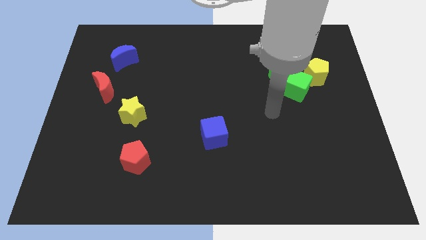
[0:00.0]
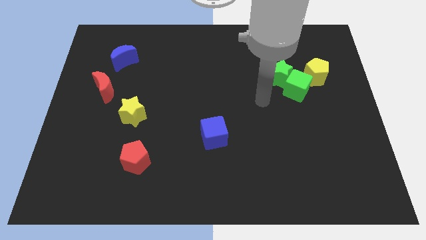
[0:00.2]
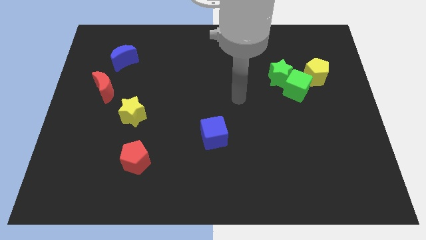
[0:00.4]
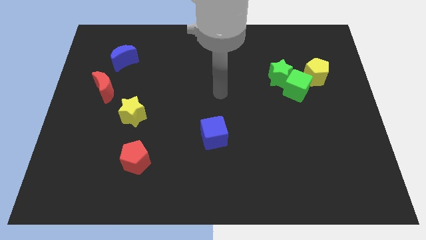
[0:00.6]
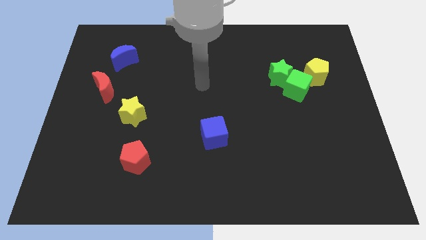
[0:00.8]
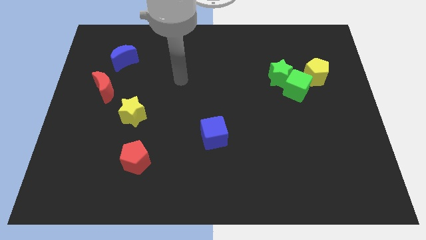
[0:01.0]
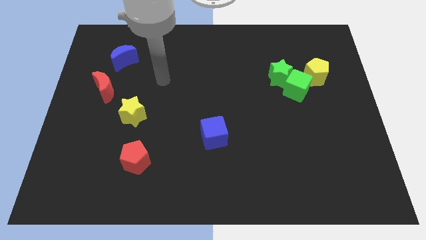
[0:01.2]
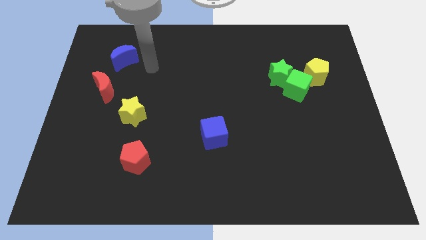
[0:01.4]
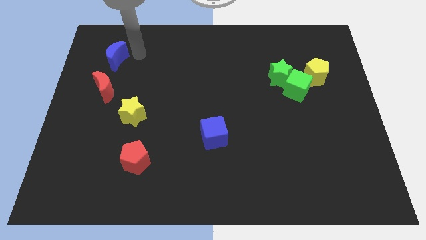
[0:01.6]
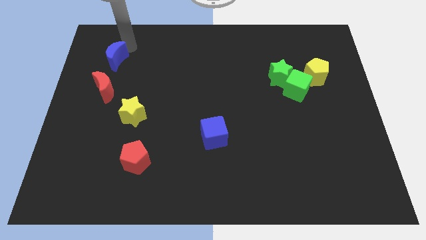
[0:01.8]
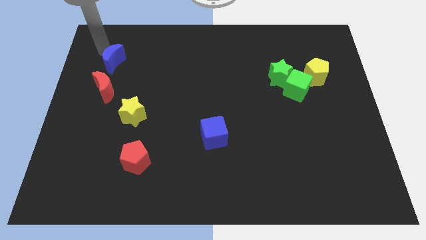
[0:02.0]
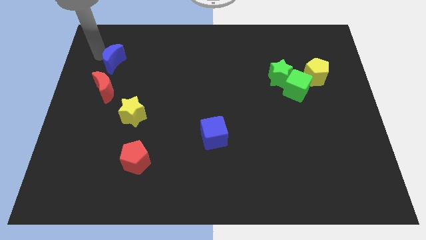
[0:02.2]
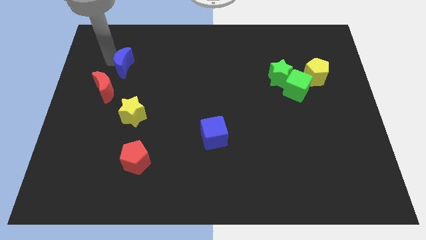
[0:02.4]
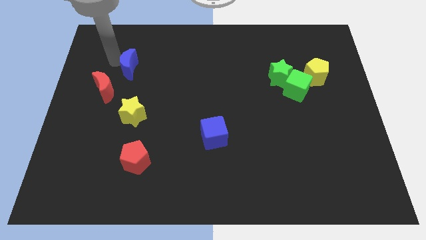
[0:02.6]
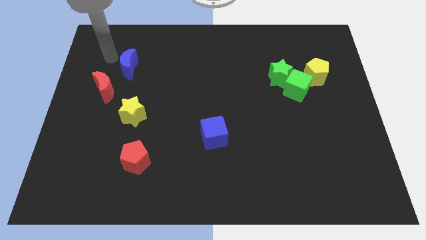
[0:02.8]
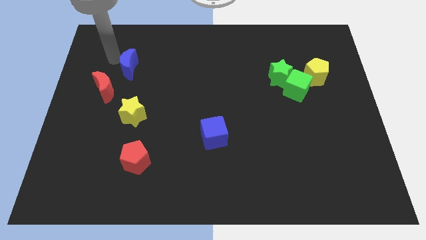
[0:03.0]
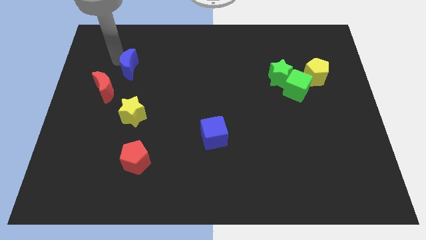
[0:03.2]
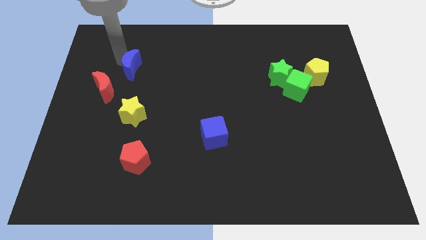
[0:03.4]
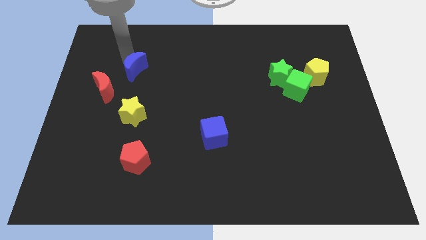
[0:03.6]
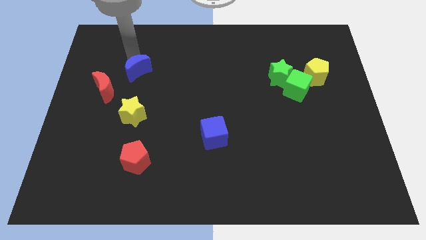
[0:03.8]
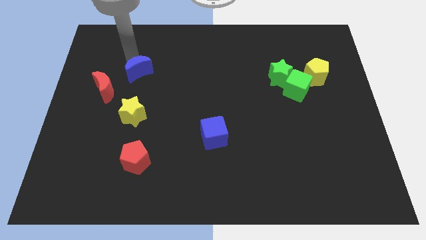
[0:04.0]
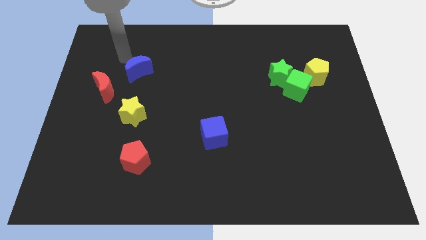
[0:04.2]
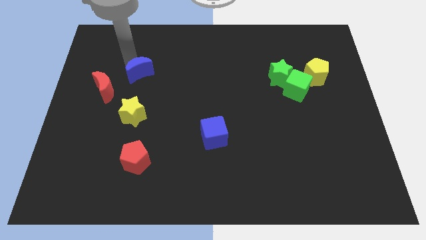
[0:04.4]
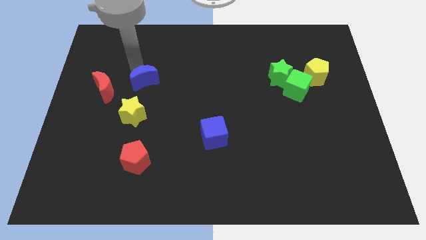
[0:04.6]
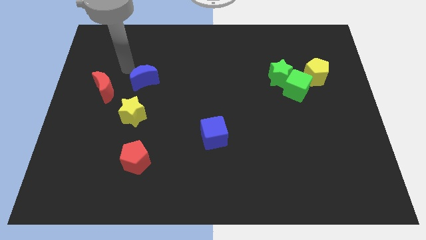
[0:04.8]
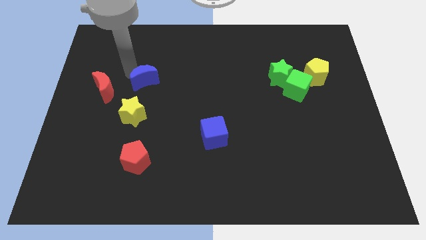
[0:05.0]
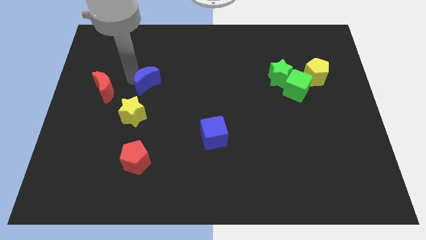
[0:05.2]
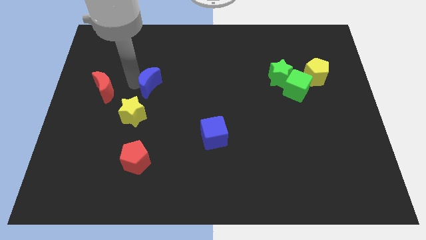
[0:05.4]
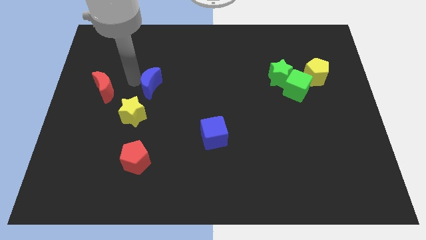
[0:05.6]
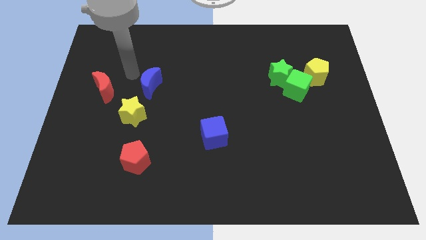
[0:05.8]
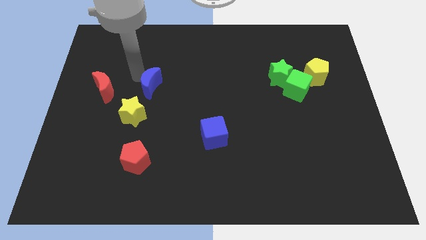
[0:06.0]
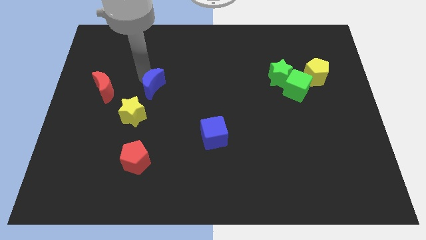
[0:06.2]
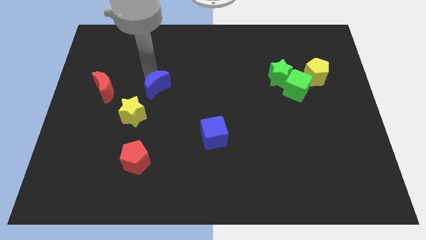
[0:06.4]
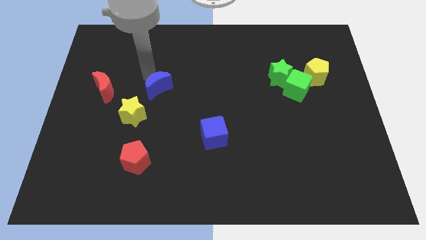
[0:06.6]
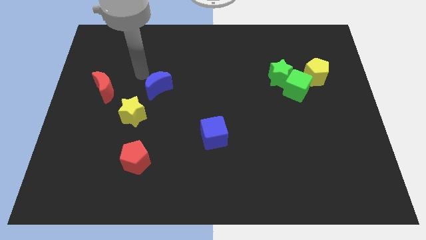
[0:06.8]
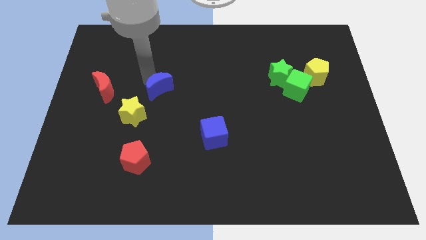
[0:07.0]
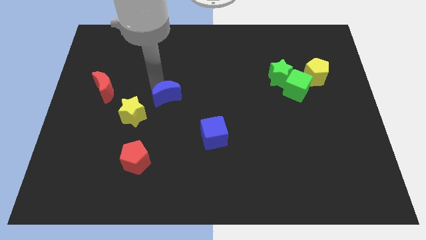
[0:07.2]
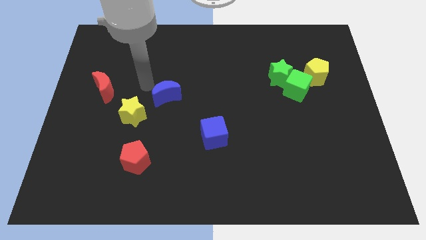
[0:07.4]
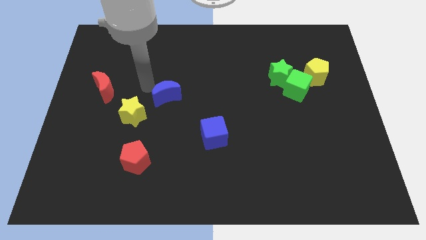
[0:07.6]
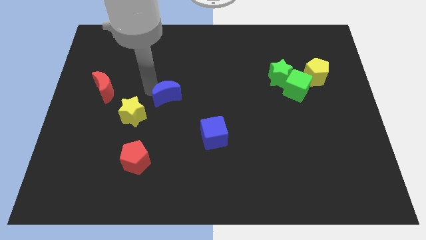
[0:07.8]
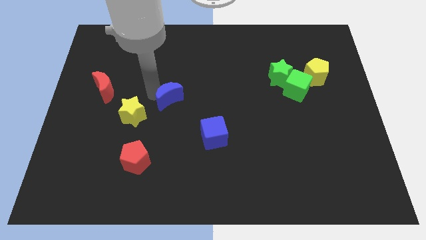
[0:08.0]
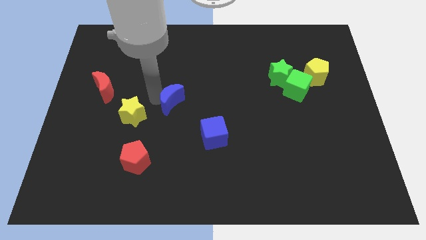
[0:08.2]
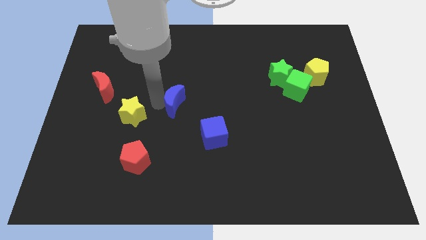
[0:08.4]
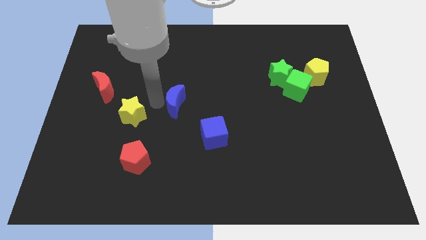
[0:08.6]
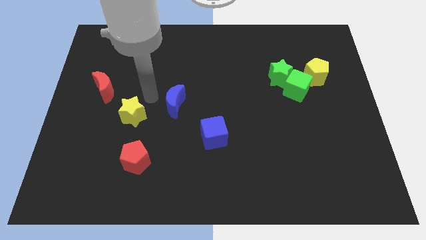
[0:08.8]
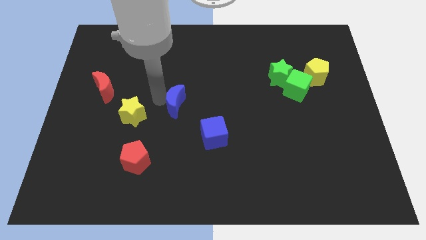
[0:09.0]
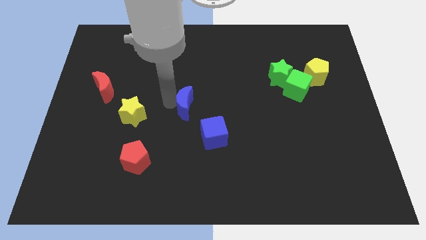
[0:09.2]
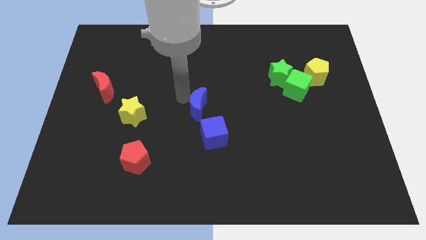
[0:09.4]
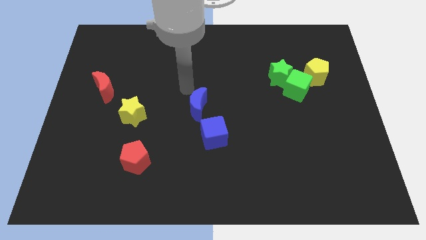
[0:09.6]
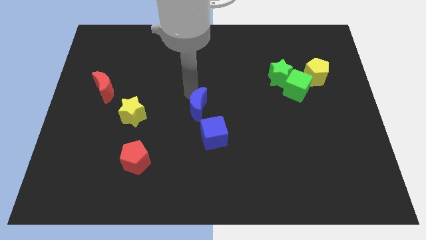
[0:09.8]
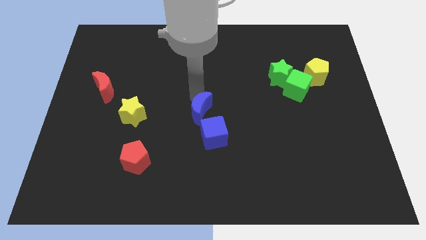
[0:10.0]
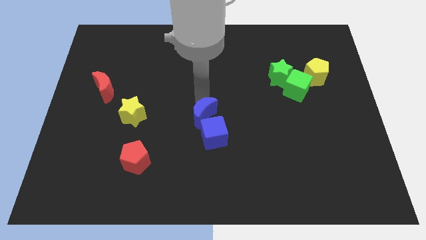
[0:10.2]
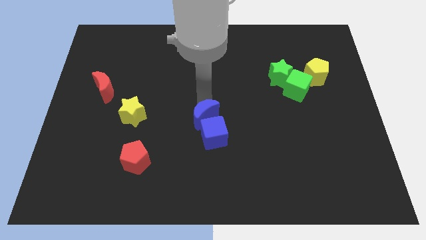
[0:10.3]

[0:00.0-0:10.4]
put the blue moon close to the blue cube

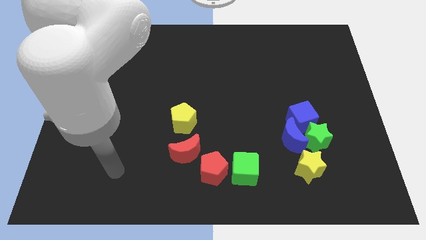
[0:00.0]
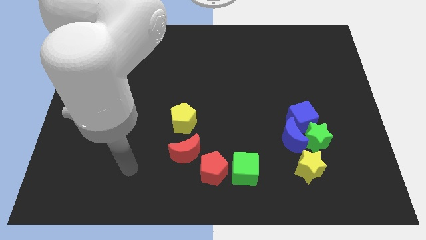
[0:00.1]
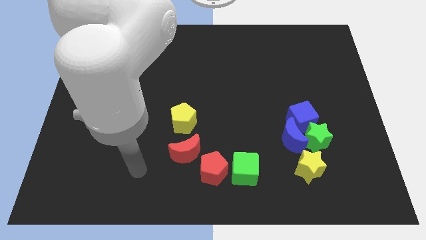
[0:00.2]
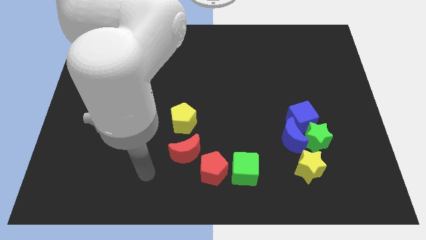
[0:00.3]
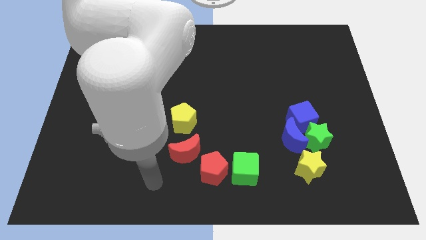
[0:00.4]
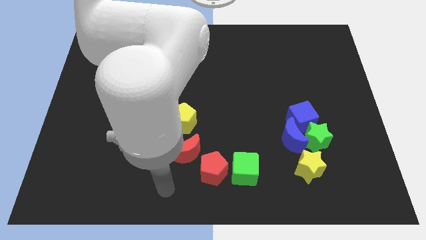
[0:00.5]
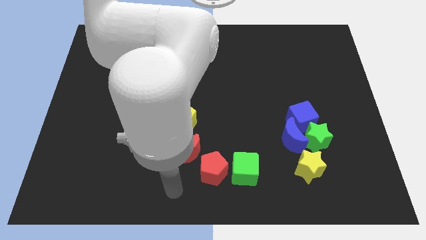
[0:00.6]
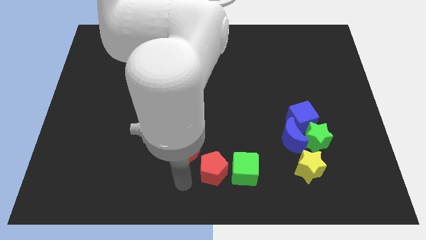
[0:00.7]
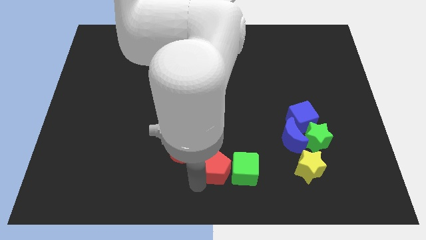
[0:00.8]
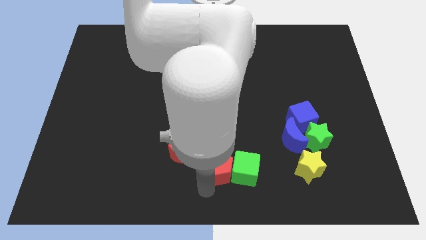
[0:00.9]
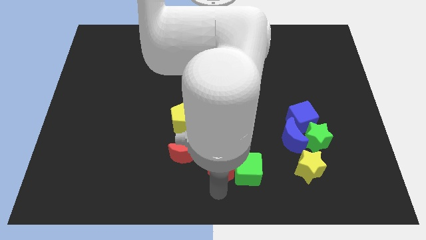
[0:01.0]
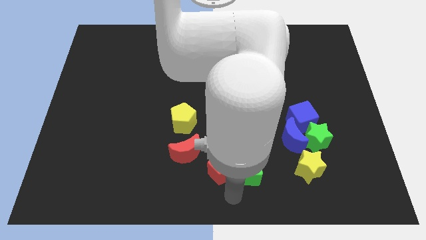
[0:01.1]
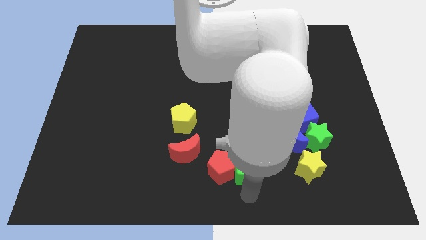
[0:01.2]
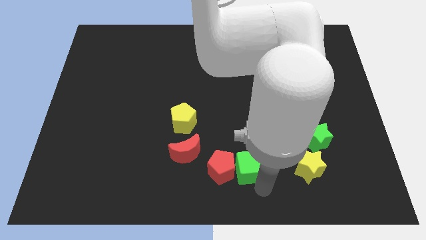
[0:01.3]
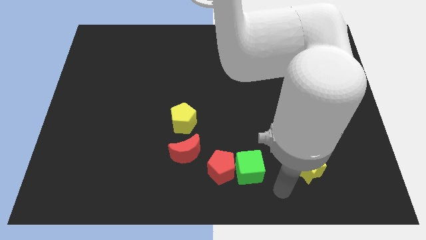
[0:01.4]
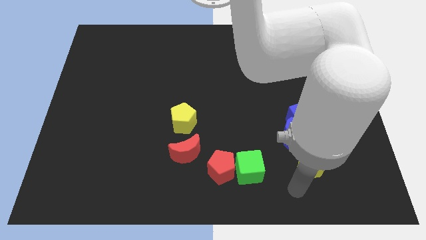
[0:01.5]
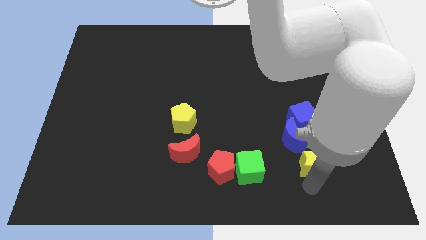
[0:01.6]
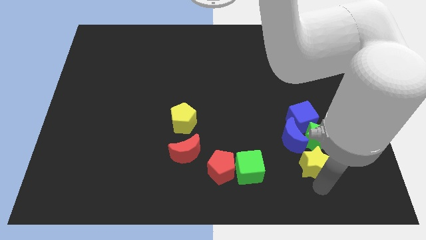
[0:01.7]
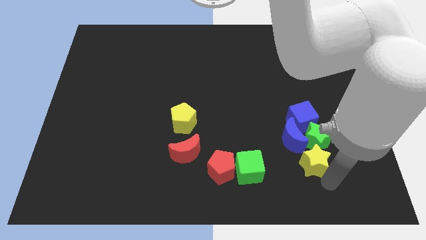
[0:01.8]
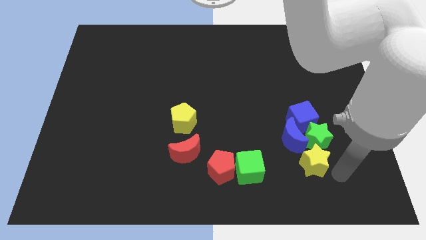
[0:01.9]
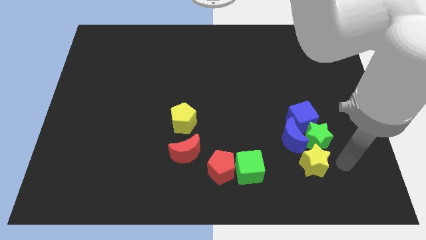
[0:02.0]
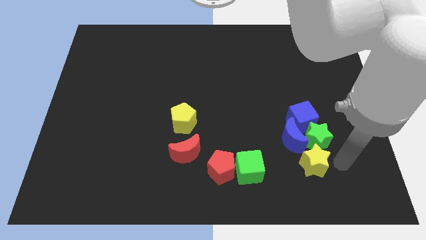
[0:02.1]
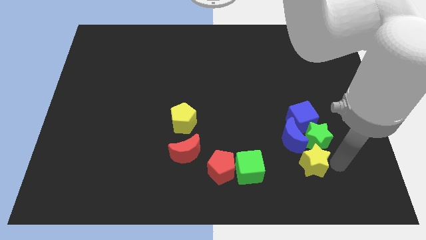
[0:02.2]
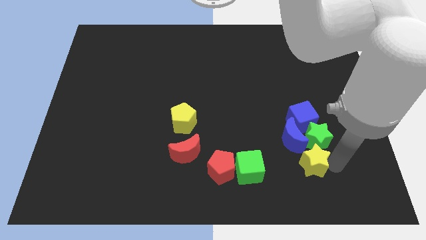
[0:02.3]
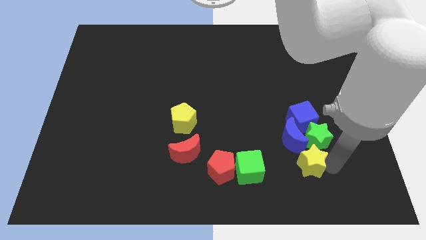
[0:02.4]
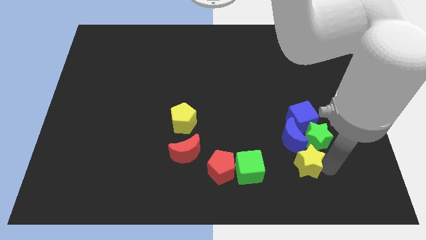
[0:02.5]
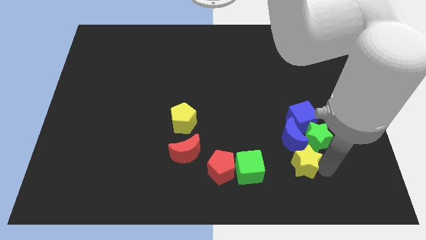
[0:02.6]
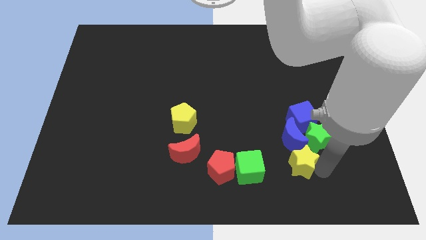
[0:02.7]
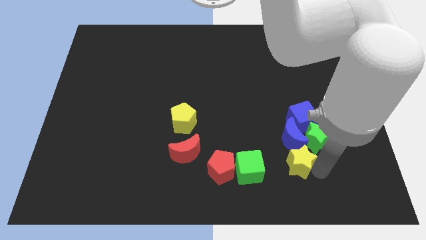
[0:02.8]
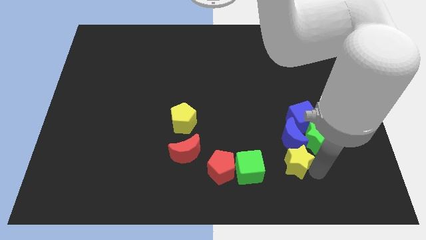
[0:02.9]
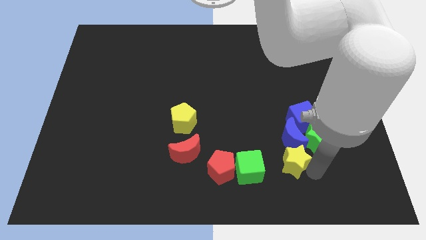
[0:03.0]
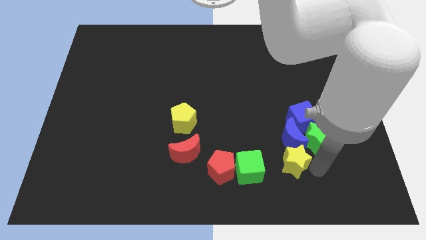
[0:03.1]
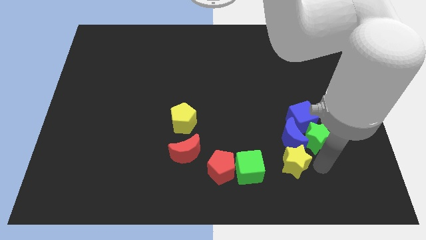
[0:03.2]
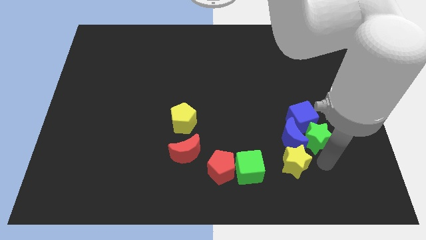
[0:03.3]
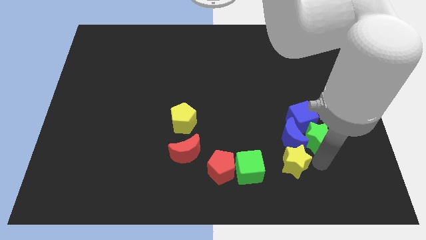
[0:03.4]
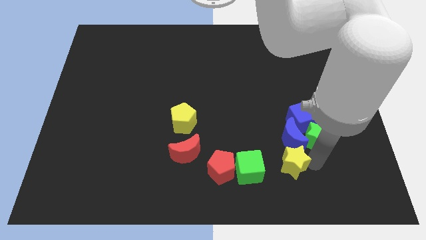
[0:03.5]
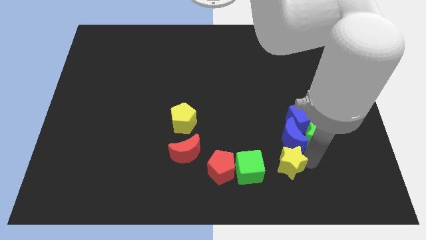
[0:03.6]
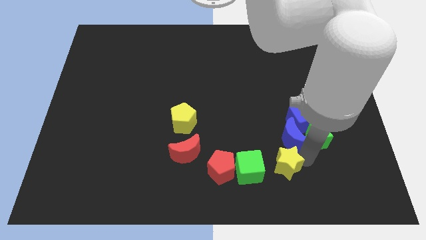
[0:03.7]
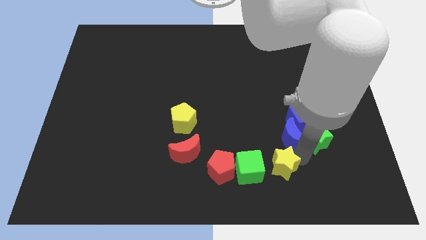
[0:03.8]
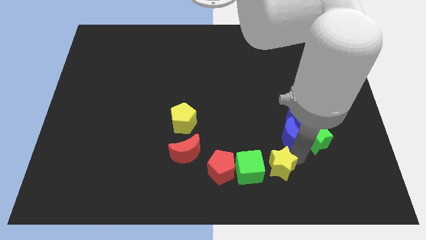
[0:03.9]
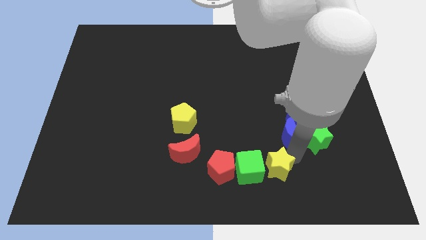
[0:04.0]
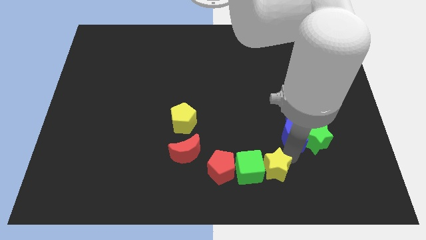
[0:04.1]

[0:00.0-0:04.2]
put the yellow star to the green cube
